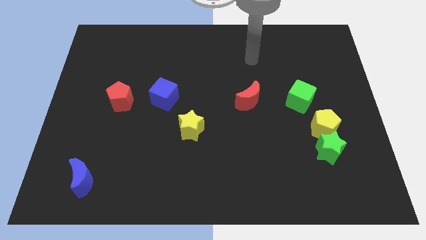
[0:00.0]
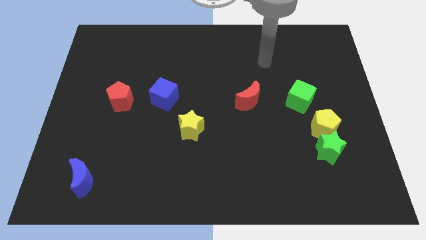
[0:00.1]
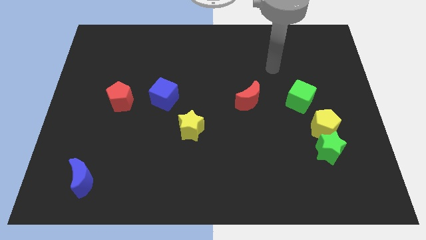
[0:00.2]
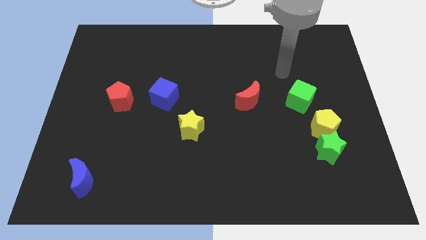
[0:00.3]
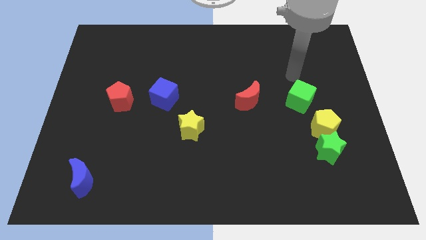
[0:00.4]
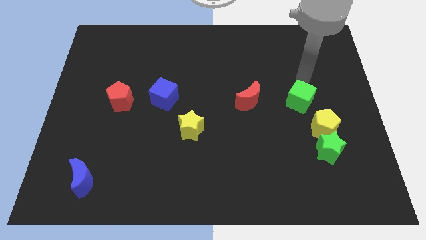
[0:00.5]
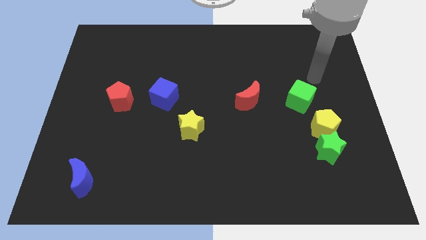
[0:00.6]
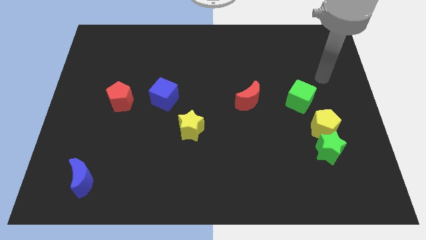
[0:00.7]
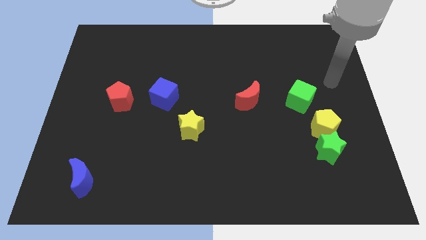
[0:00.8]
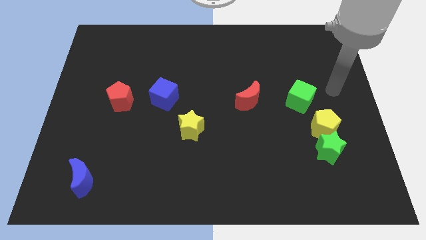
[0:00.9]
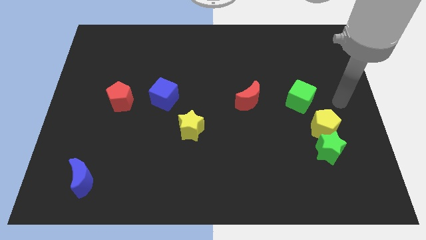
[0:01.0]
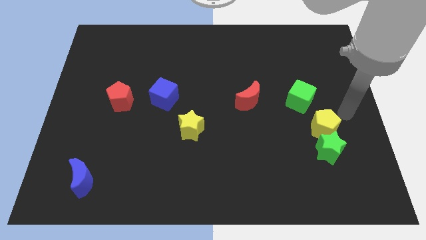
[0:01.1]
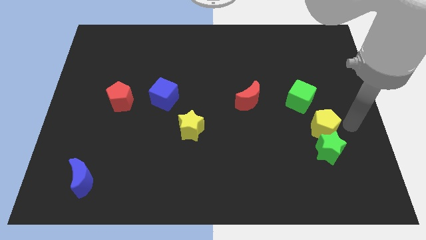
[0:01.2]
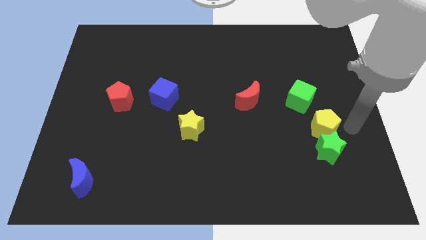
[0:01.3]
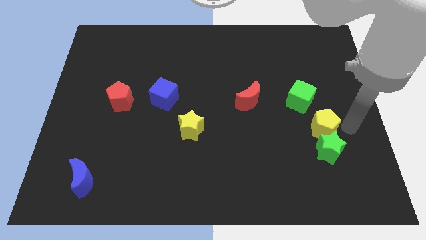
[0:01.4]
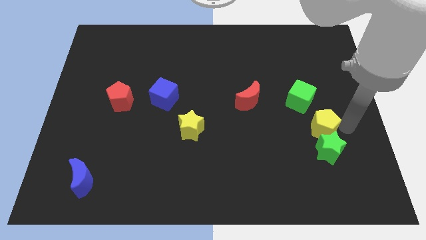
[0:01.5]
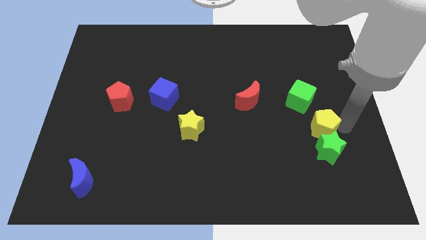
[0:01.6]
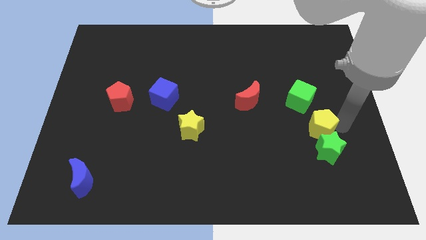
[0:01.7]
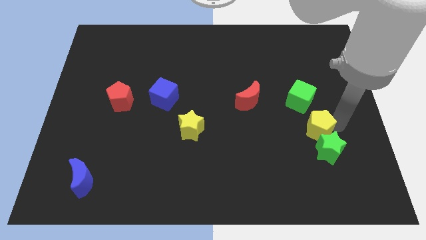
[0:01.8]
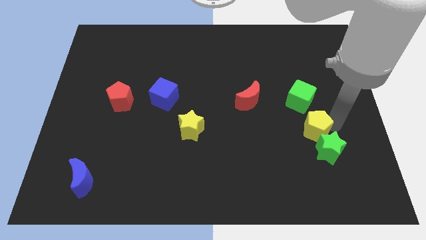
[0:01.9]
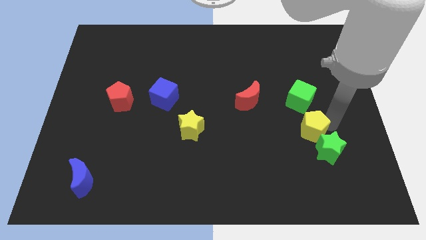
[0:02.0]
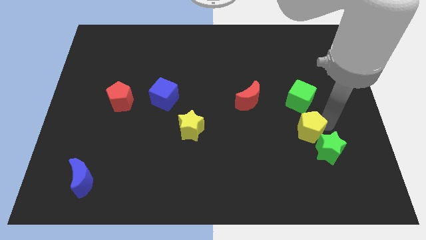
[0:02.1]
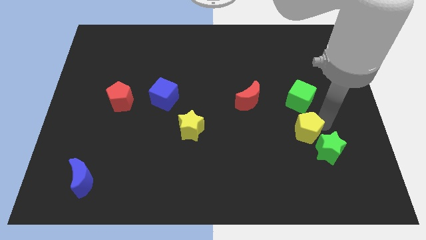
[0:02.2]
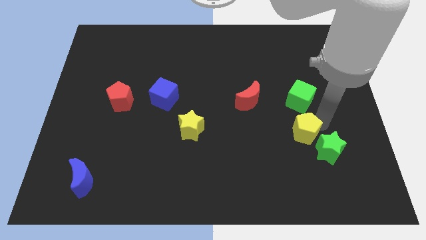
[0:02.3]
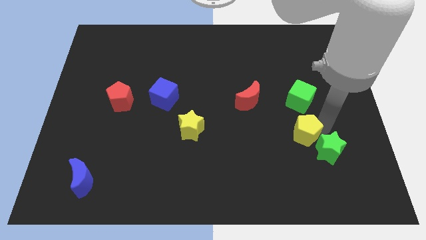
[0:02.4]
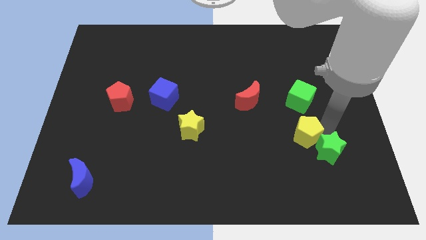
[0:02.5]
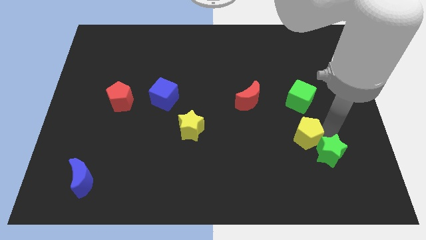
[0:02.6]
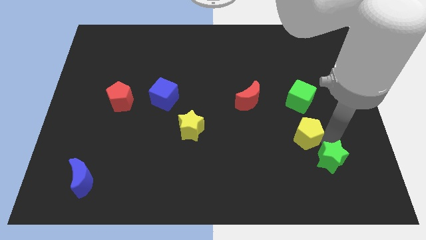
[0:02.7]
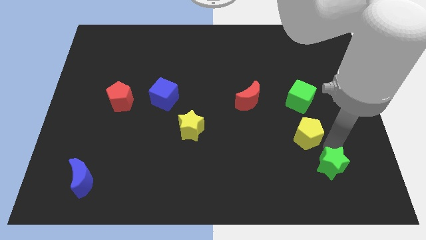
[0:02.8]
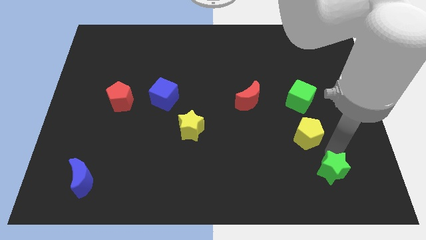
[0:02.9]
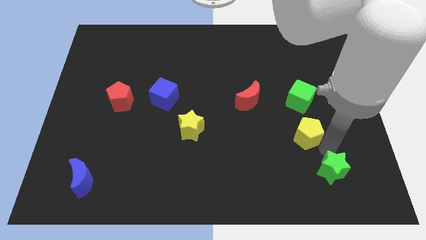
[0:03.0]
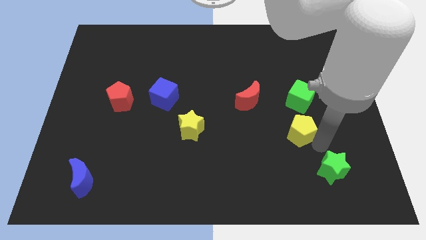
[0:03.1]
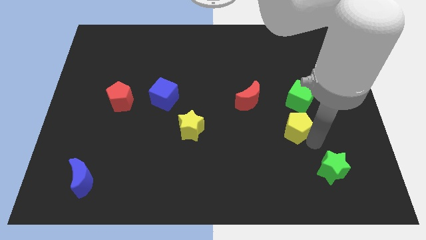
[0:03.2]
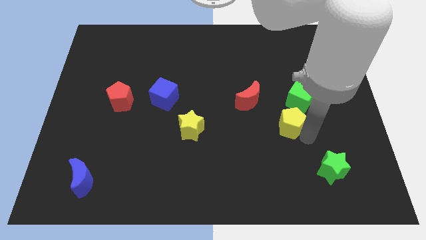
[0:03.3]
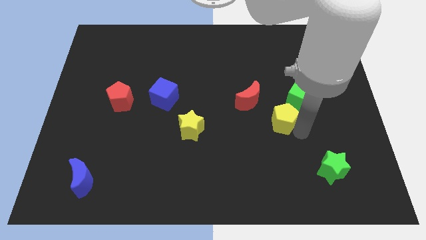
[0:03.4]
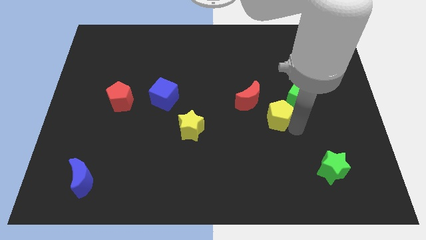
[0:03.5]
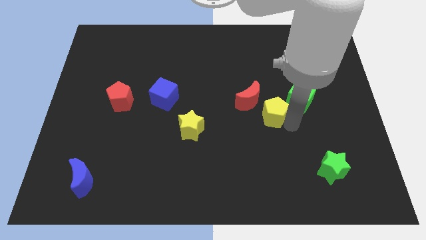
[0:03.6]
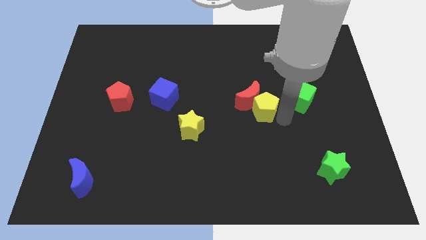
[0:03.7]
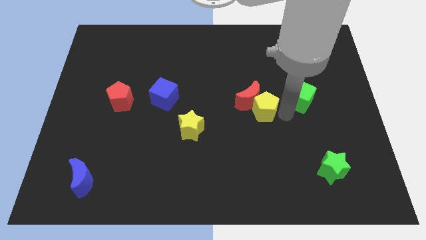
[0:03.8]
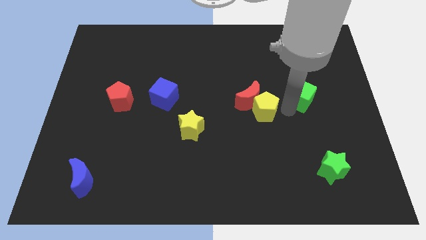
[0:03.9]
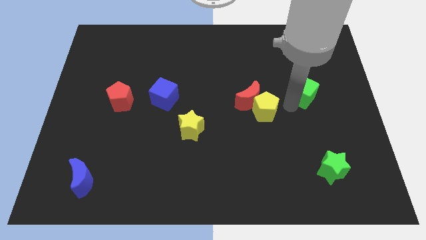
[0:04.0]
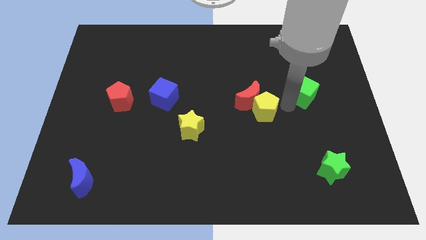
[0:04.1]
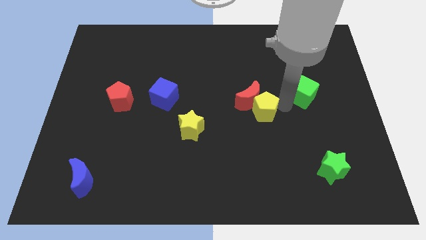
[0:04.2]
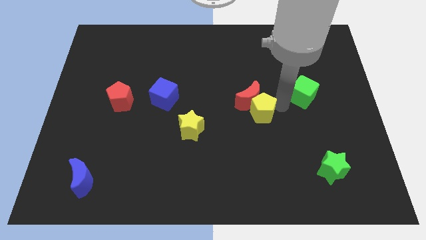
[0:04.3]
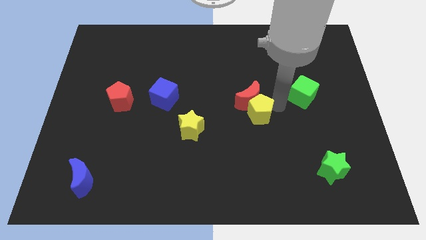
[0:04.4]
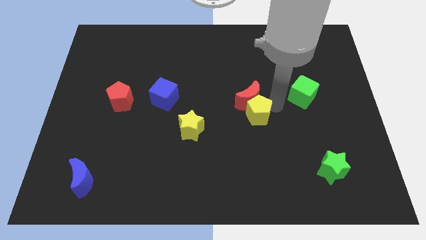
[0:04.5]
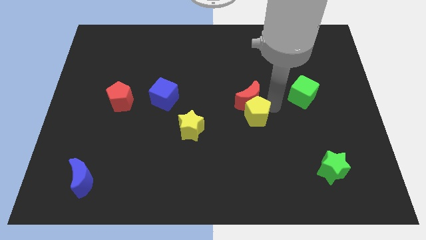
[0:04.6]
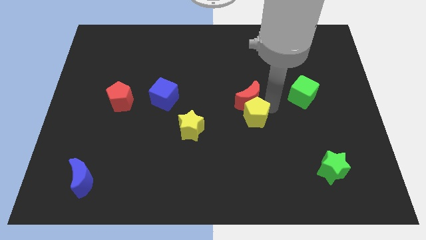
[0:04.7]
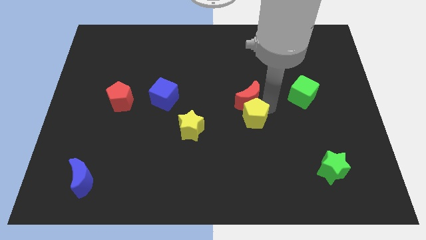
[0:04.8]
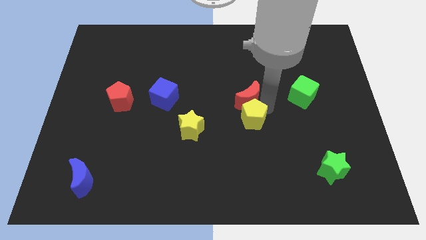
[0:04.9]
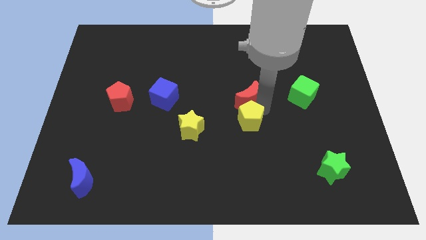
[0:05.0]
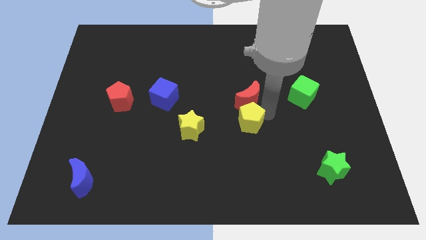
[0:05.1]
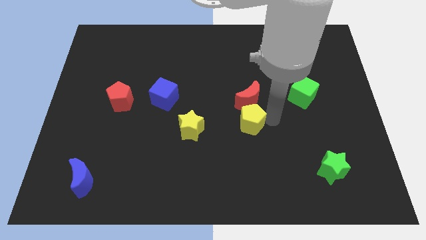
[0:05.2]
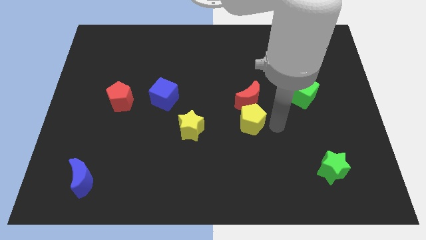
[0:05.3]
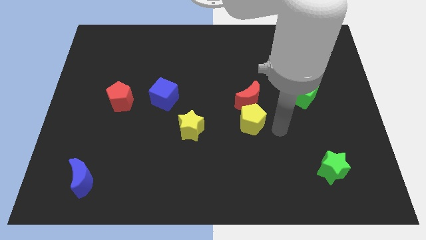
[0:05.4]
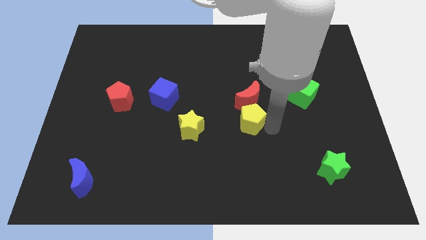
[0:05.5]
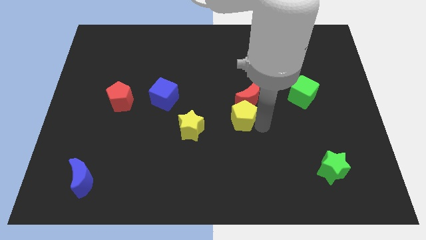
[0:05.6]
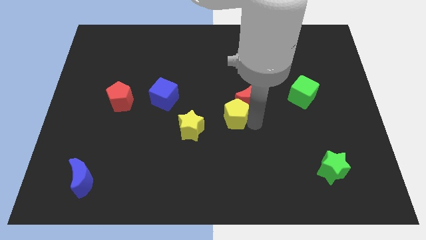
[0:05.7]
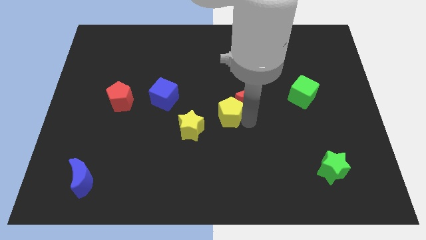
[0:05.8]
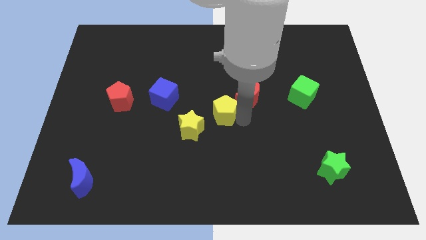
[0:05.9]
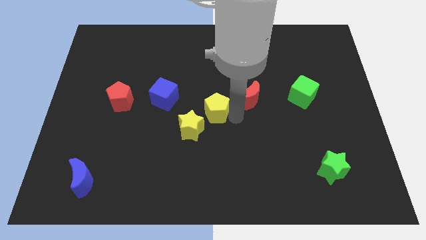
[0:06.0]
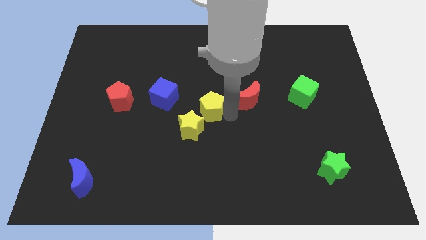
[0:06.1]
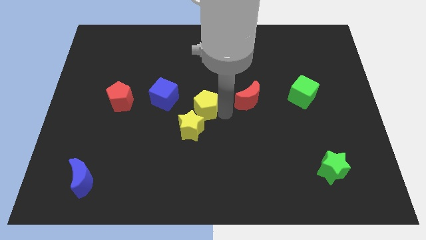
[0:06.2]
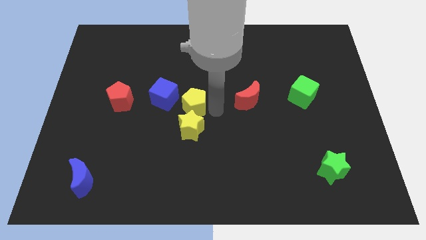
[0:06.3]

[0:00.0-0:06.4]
move the yellow pentagon to the top left side of the yellow star
